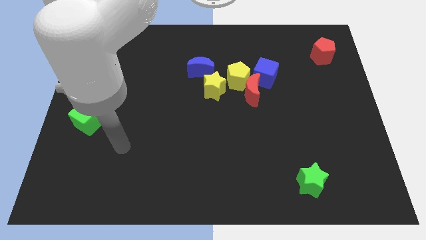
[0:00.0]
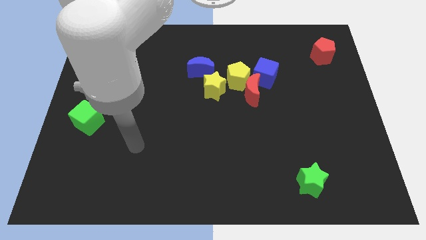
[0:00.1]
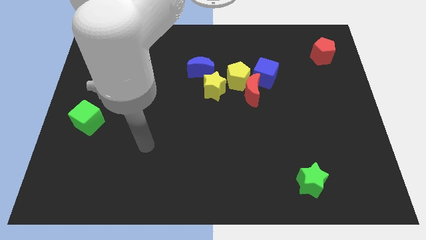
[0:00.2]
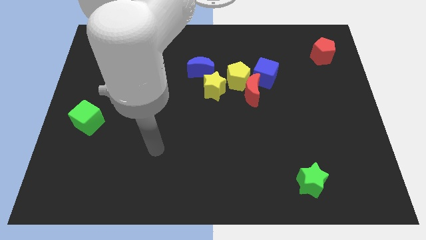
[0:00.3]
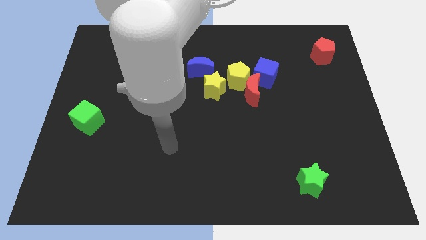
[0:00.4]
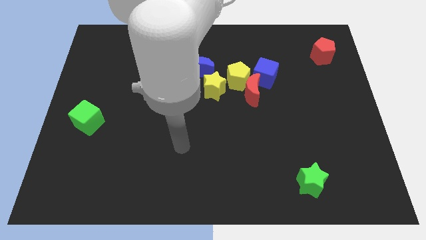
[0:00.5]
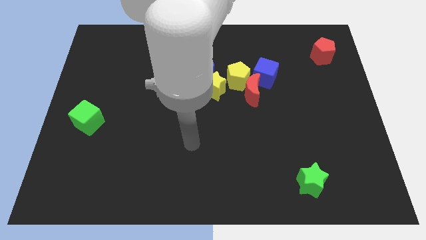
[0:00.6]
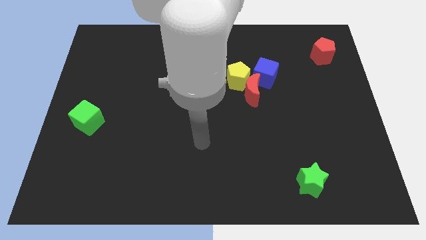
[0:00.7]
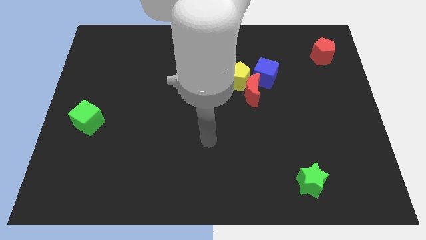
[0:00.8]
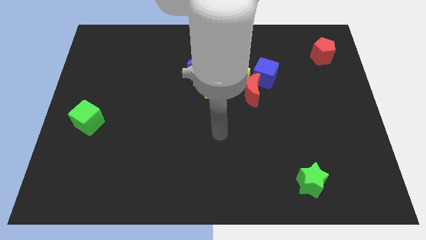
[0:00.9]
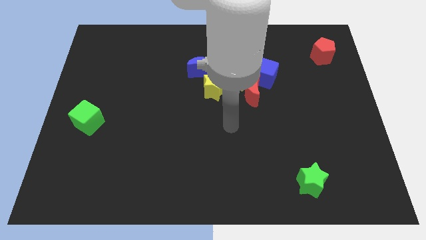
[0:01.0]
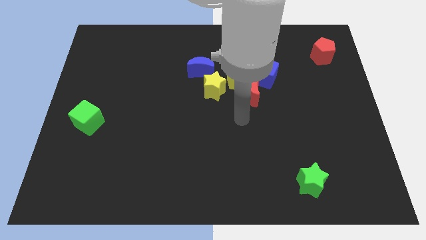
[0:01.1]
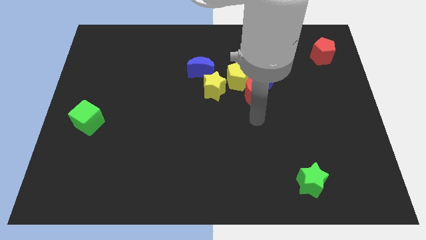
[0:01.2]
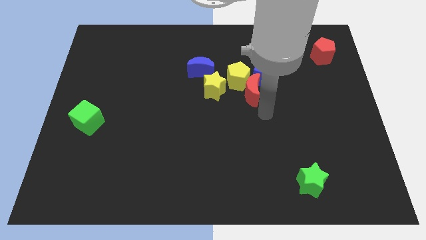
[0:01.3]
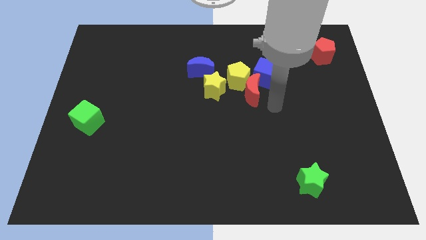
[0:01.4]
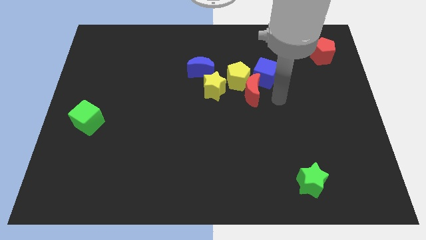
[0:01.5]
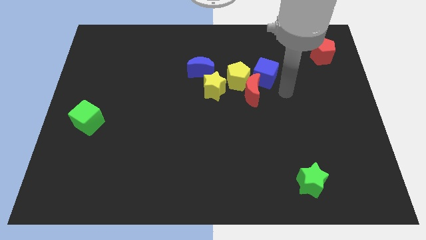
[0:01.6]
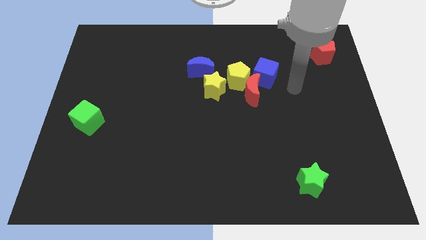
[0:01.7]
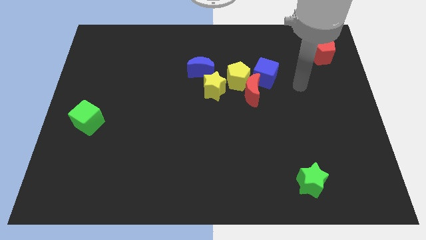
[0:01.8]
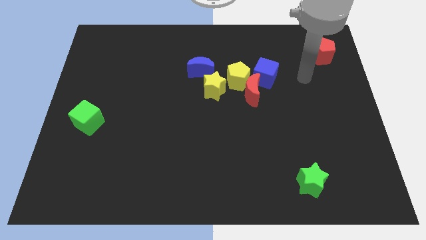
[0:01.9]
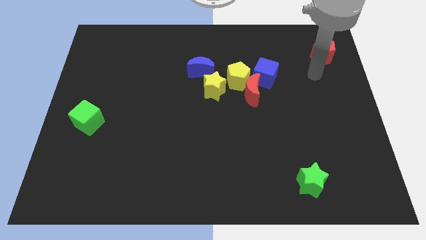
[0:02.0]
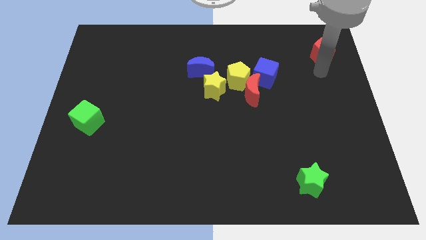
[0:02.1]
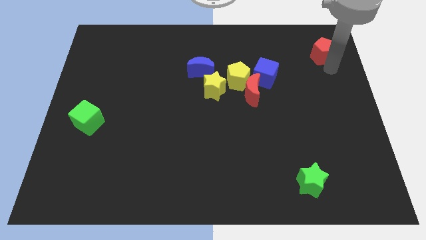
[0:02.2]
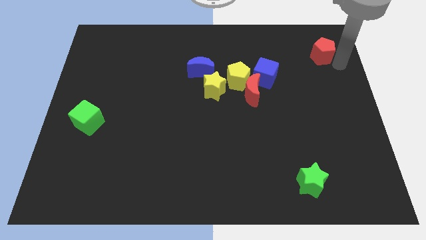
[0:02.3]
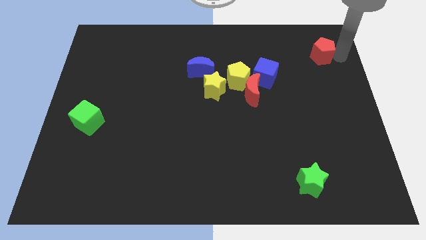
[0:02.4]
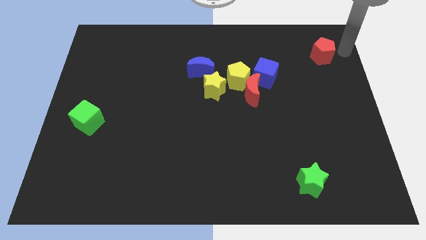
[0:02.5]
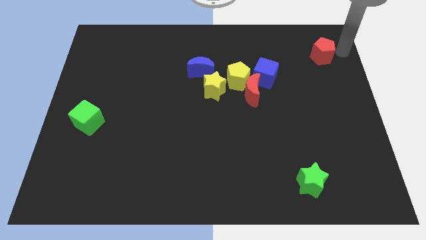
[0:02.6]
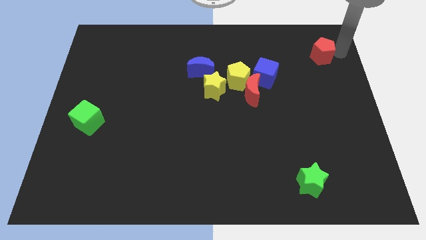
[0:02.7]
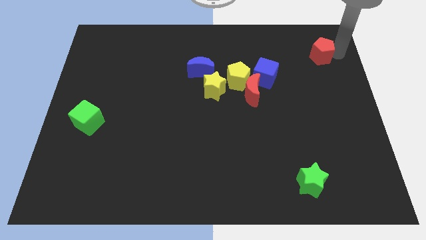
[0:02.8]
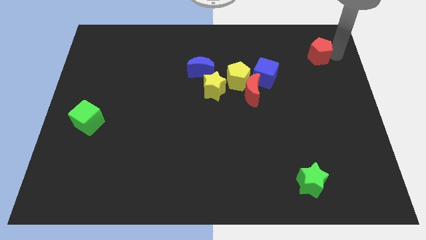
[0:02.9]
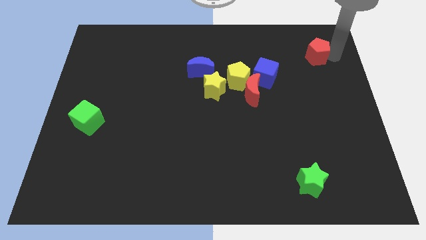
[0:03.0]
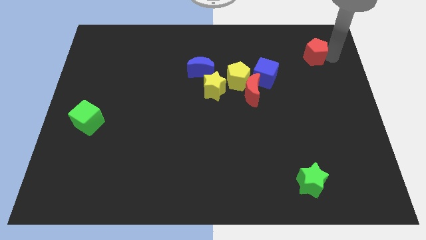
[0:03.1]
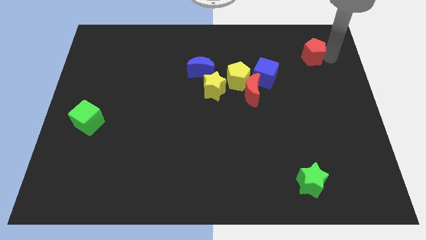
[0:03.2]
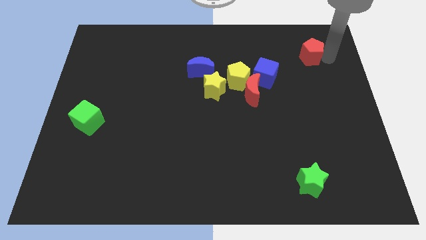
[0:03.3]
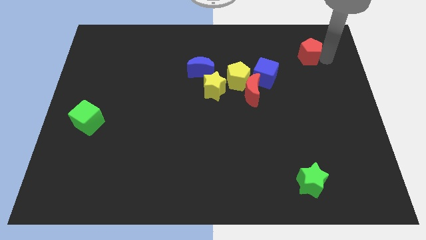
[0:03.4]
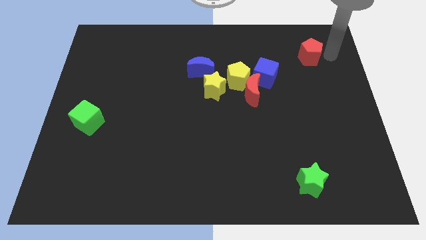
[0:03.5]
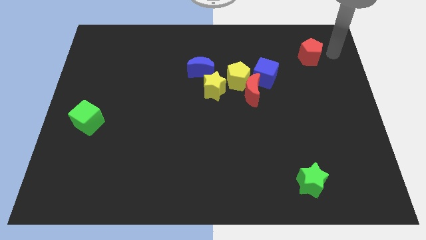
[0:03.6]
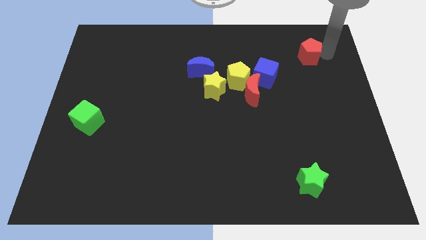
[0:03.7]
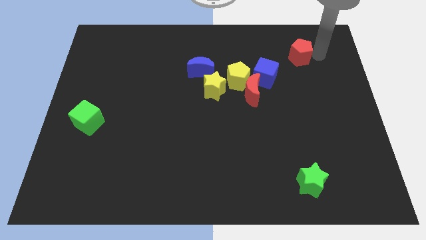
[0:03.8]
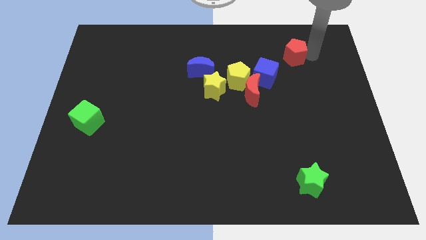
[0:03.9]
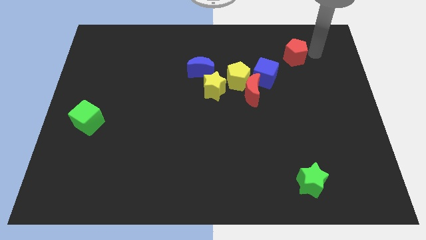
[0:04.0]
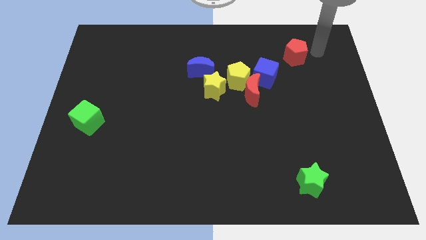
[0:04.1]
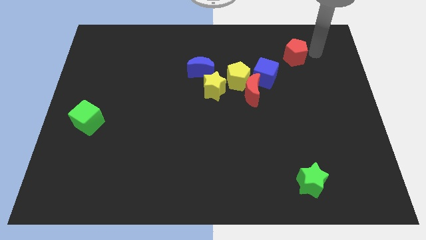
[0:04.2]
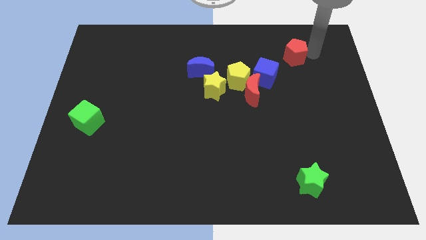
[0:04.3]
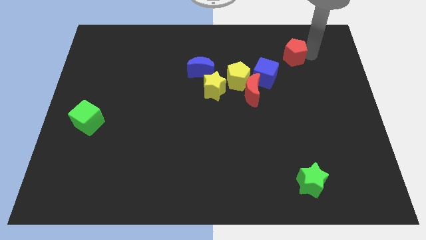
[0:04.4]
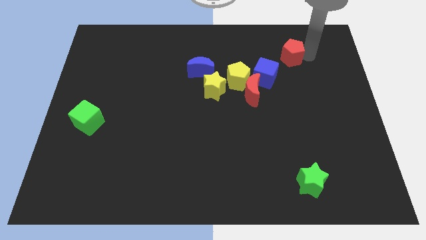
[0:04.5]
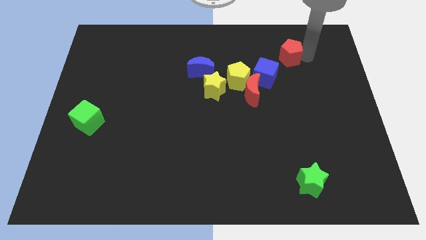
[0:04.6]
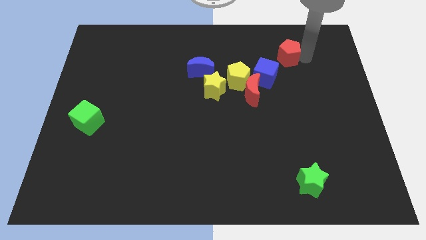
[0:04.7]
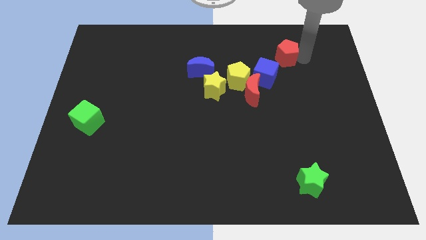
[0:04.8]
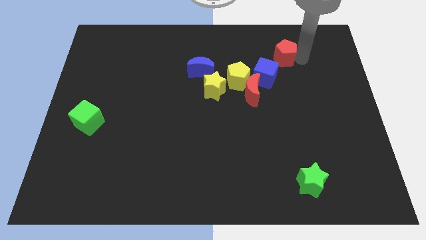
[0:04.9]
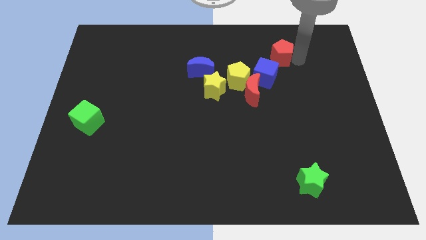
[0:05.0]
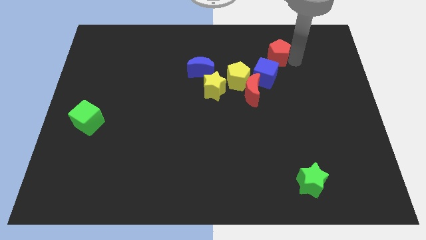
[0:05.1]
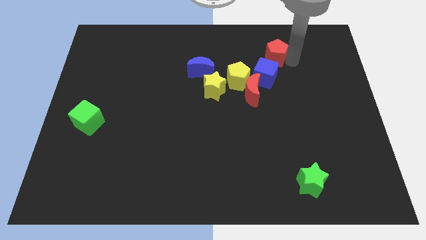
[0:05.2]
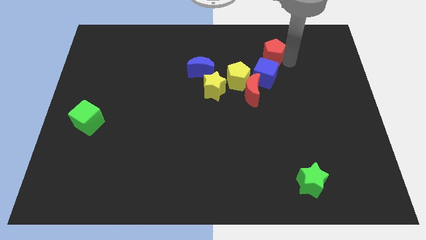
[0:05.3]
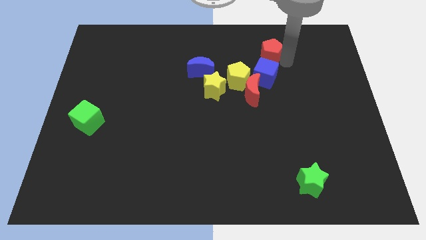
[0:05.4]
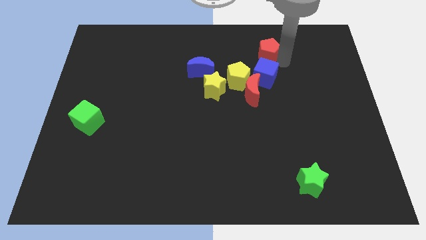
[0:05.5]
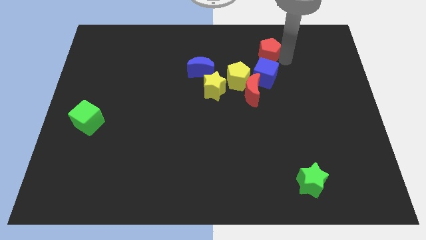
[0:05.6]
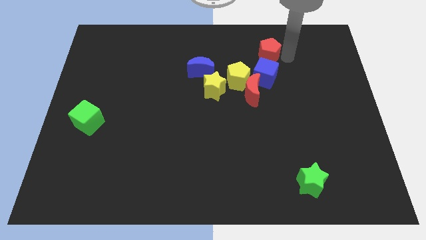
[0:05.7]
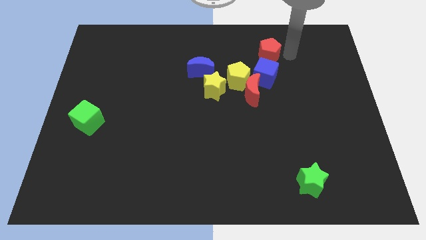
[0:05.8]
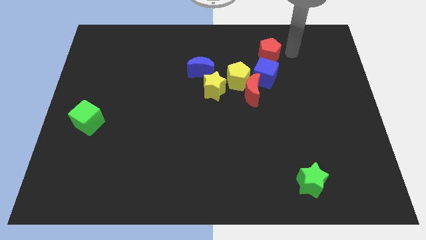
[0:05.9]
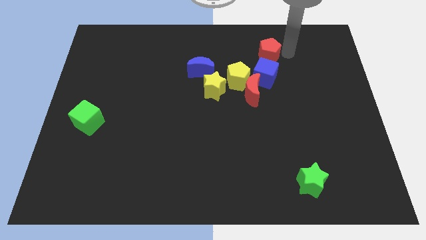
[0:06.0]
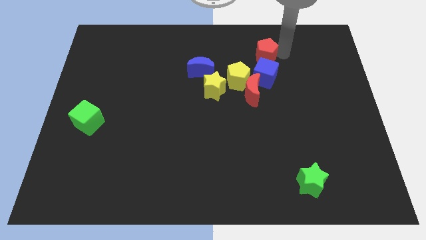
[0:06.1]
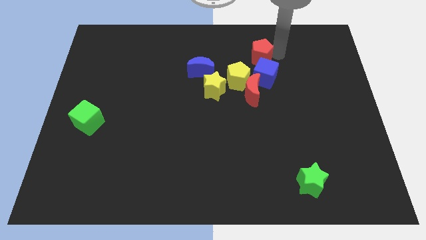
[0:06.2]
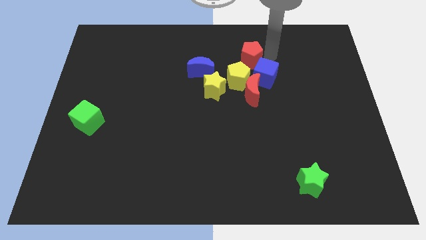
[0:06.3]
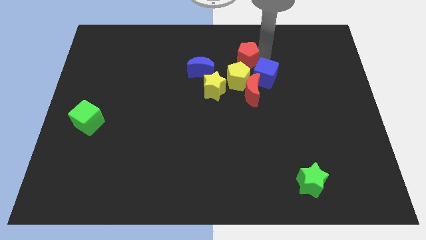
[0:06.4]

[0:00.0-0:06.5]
move the red pentagon left

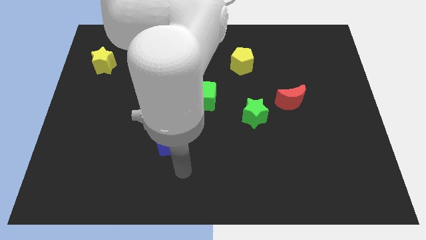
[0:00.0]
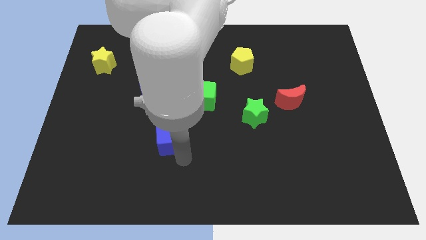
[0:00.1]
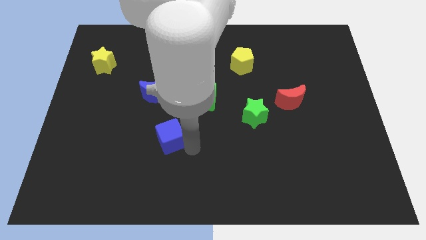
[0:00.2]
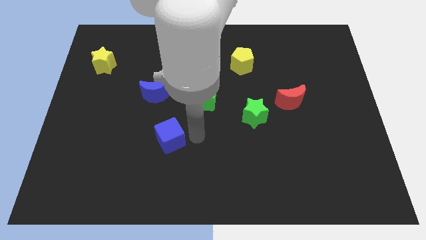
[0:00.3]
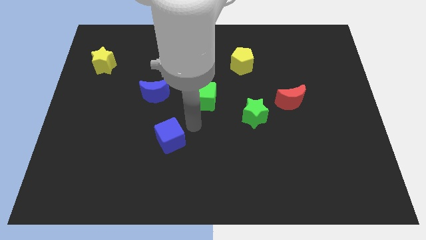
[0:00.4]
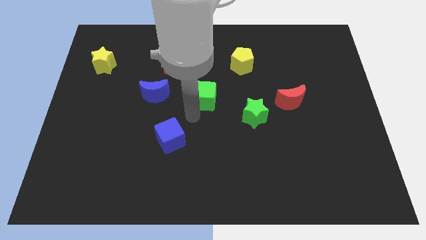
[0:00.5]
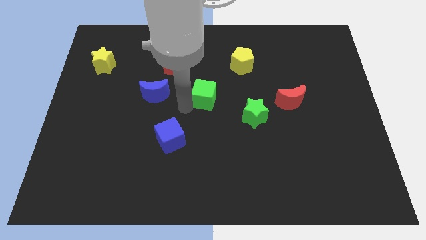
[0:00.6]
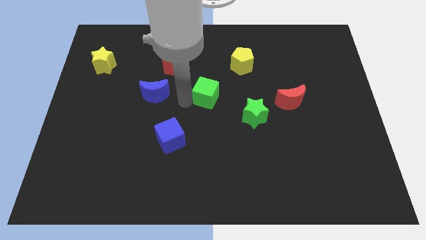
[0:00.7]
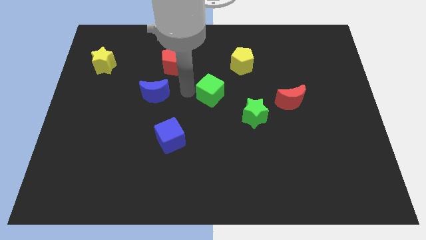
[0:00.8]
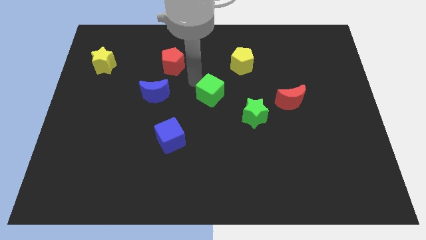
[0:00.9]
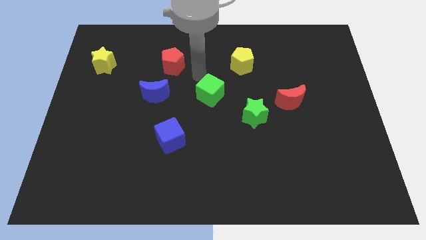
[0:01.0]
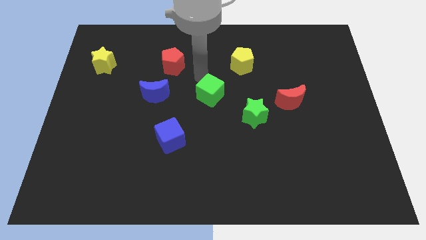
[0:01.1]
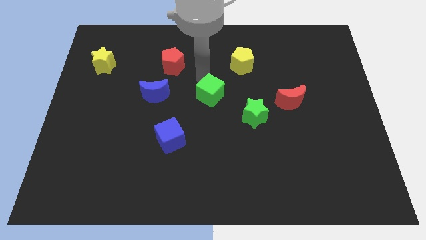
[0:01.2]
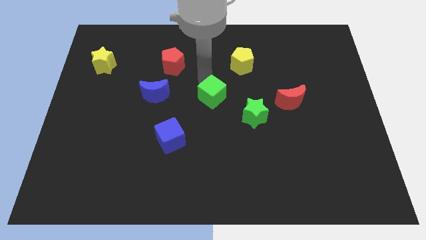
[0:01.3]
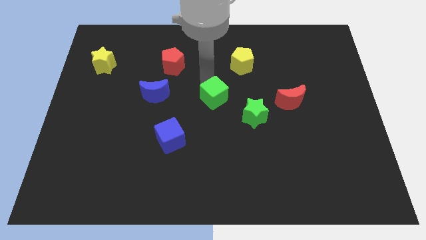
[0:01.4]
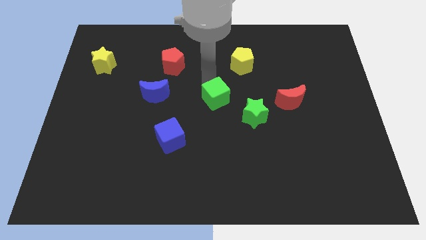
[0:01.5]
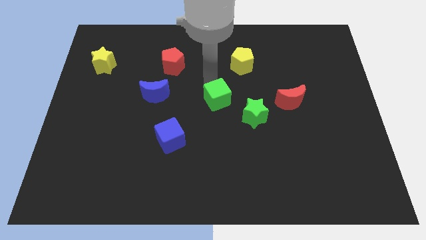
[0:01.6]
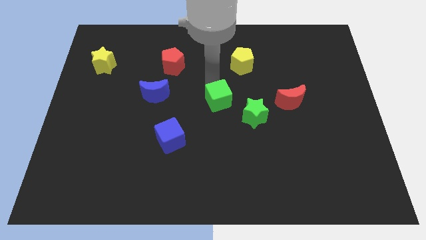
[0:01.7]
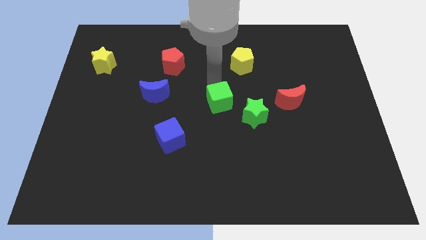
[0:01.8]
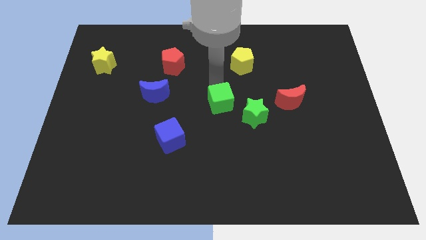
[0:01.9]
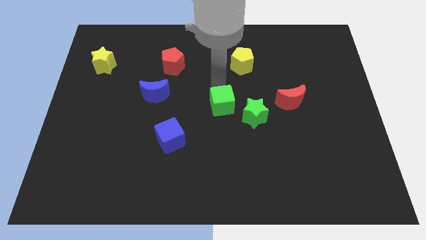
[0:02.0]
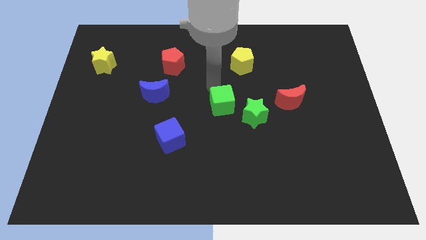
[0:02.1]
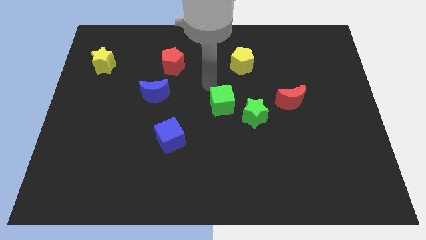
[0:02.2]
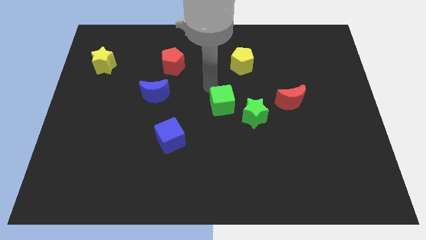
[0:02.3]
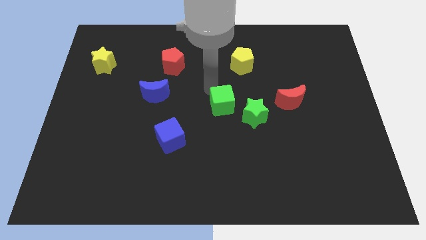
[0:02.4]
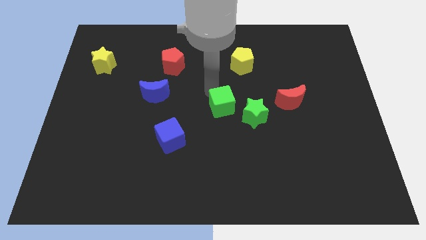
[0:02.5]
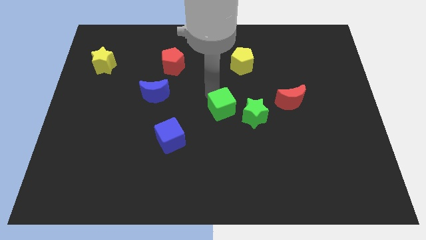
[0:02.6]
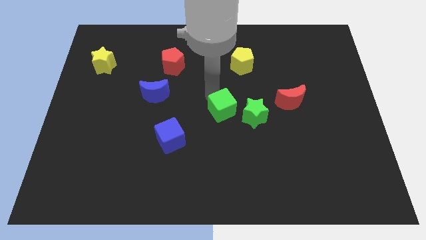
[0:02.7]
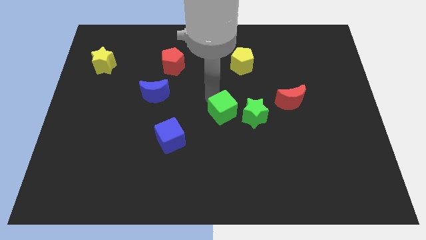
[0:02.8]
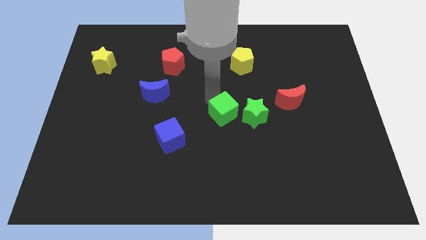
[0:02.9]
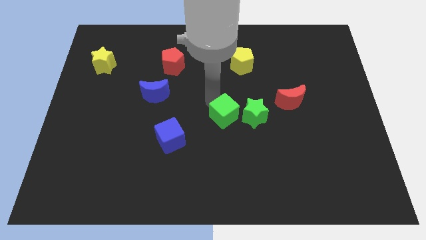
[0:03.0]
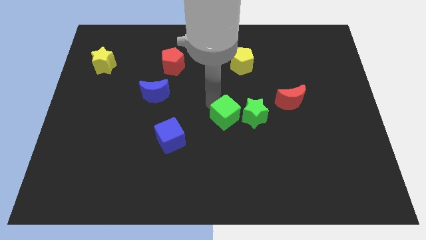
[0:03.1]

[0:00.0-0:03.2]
slightly slide the green cube diagonally downwards and right
